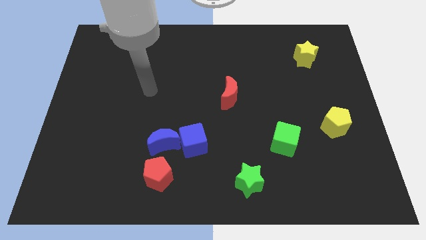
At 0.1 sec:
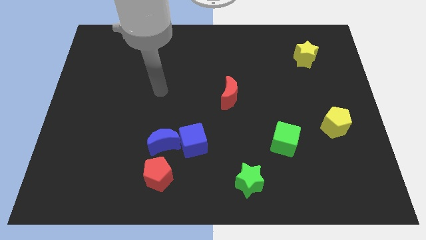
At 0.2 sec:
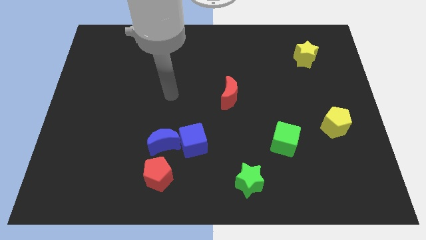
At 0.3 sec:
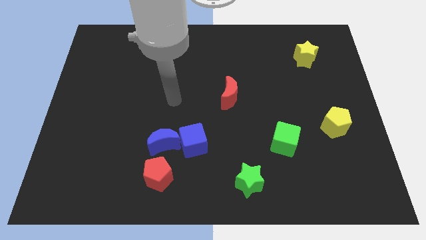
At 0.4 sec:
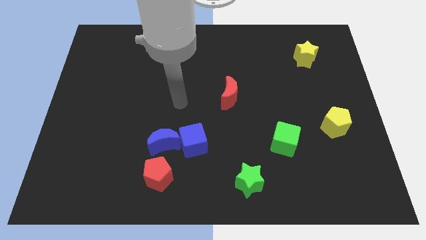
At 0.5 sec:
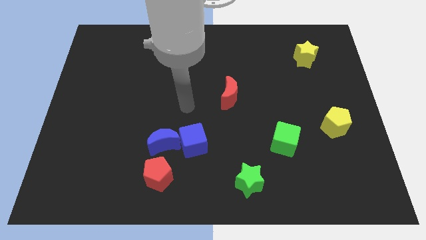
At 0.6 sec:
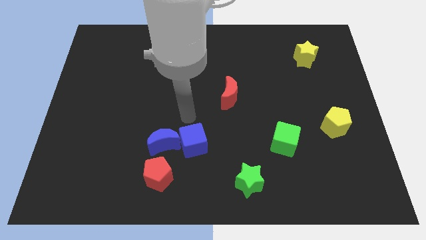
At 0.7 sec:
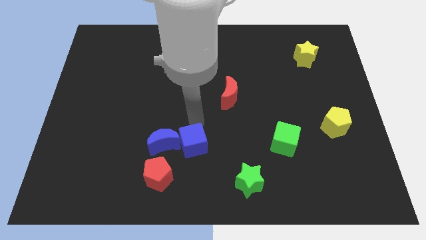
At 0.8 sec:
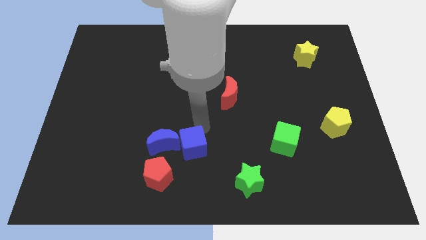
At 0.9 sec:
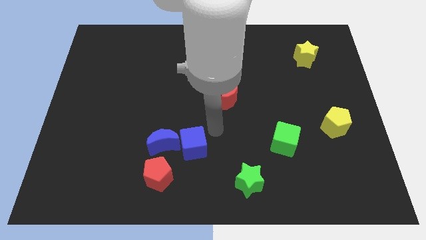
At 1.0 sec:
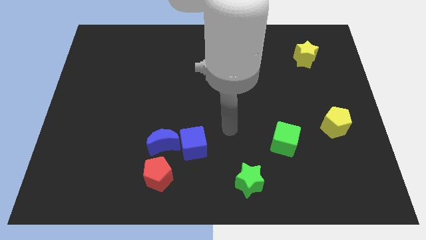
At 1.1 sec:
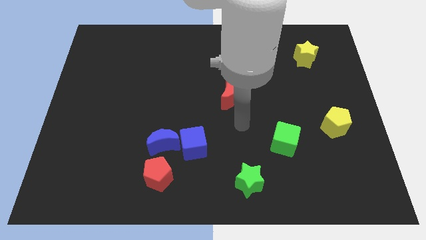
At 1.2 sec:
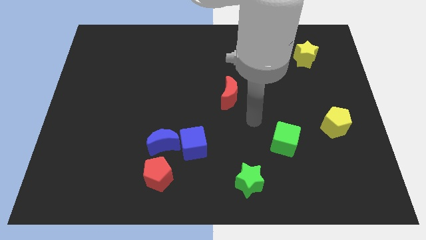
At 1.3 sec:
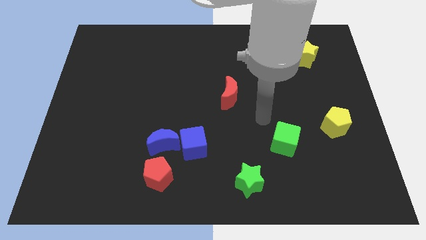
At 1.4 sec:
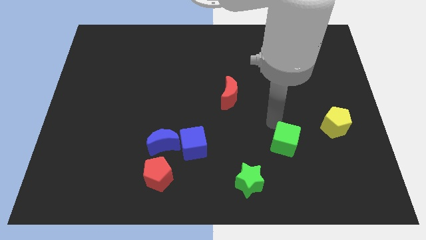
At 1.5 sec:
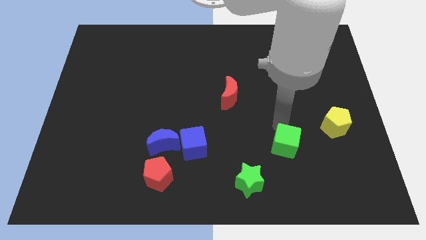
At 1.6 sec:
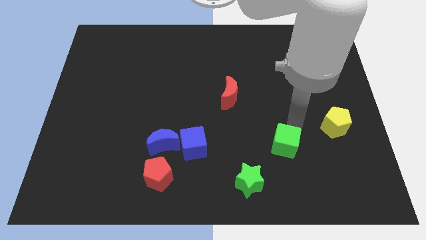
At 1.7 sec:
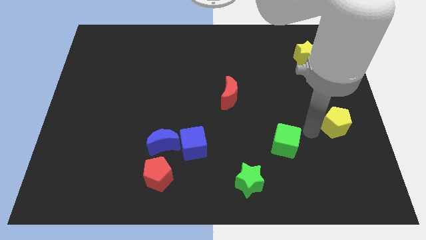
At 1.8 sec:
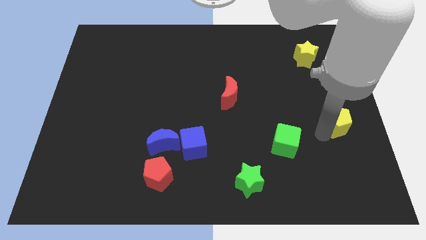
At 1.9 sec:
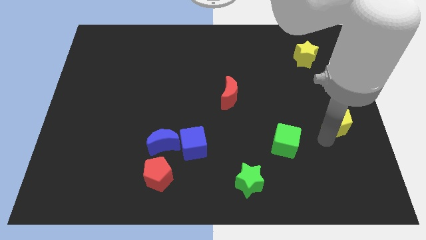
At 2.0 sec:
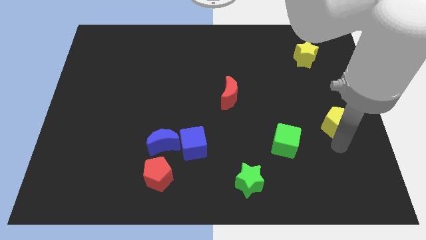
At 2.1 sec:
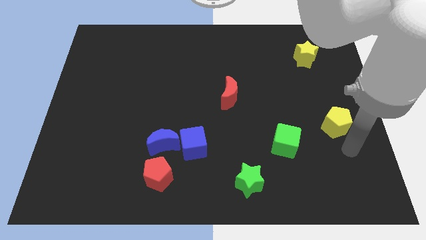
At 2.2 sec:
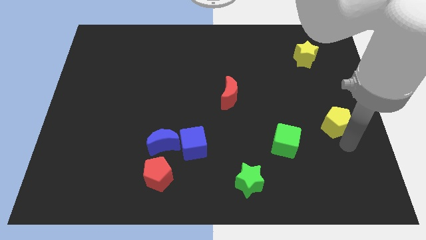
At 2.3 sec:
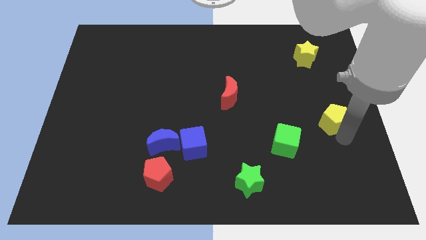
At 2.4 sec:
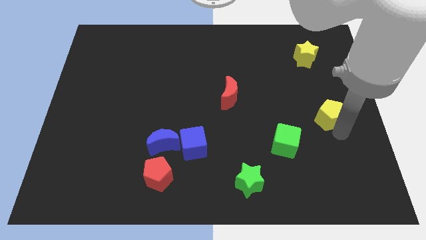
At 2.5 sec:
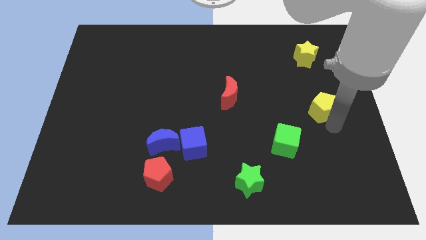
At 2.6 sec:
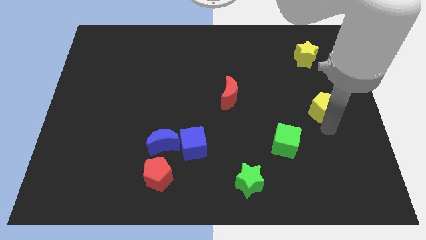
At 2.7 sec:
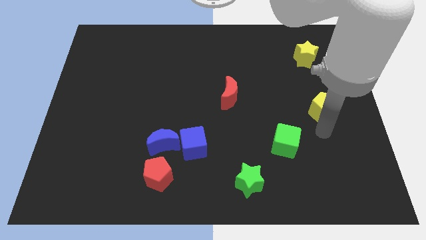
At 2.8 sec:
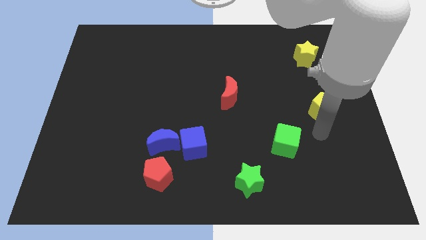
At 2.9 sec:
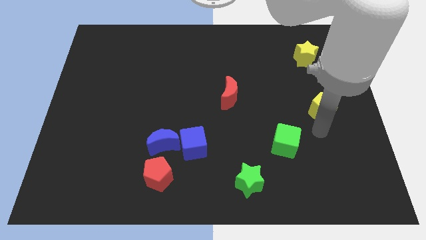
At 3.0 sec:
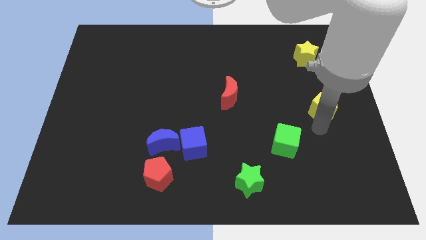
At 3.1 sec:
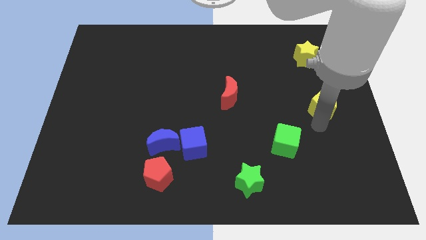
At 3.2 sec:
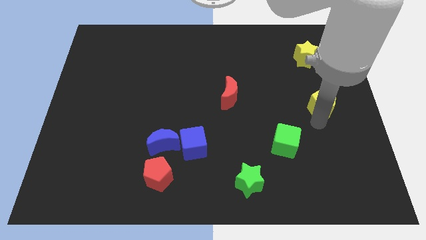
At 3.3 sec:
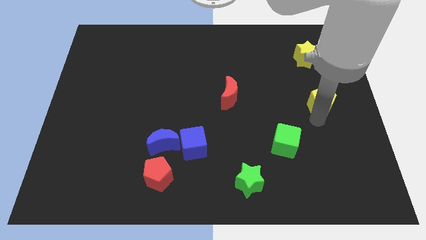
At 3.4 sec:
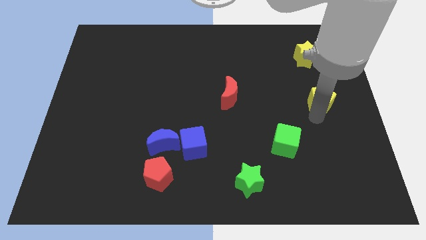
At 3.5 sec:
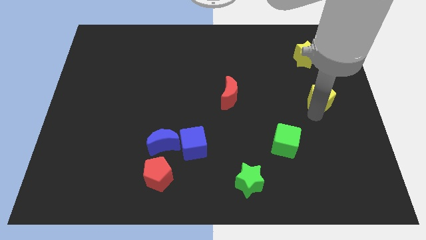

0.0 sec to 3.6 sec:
slightly push the yellow pentagon up

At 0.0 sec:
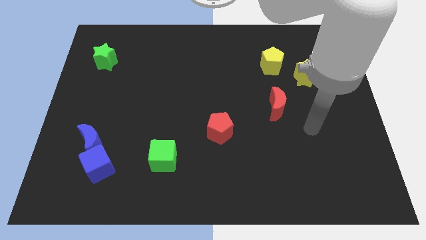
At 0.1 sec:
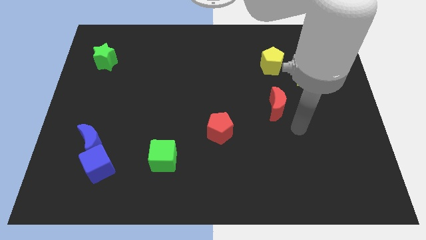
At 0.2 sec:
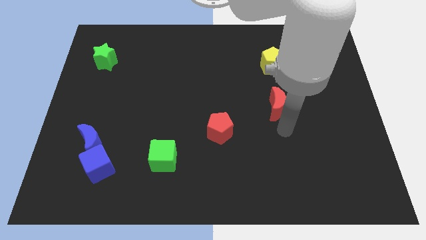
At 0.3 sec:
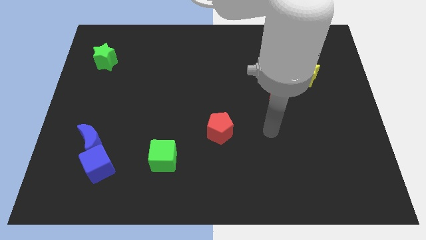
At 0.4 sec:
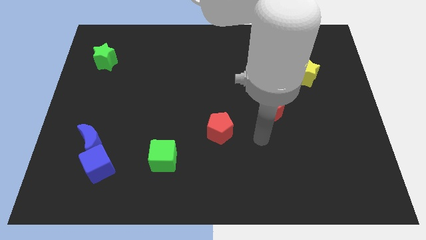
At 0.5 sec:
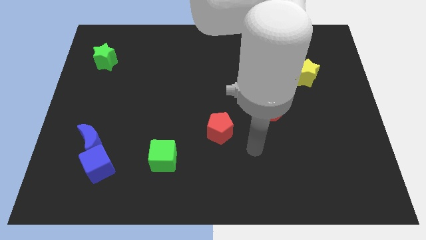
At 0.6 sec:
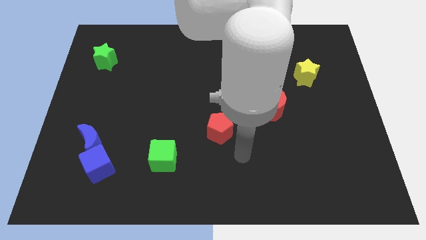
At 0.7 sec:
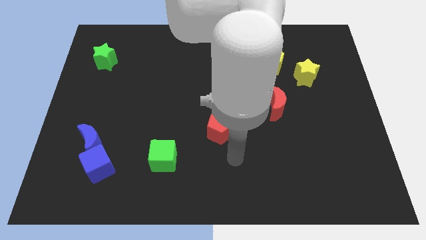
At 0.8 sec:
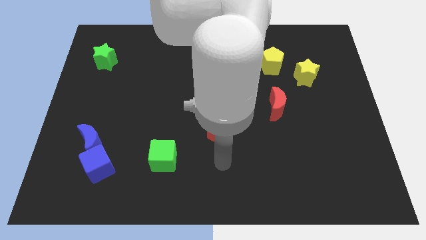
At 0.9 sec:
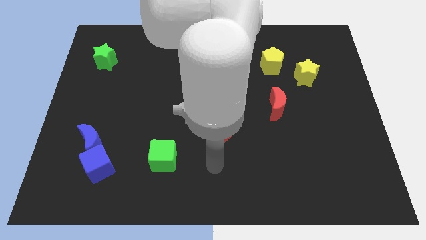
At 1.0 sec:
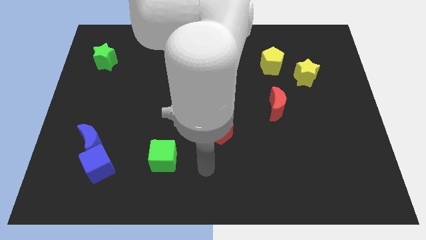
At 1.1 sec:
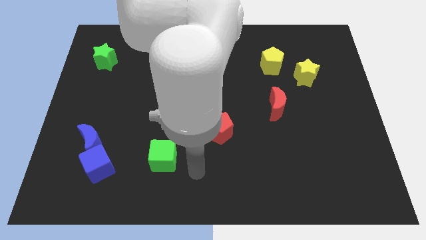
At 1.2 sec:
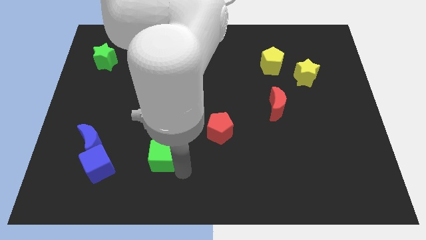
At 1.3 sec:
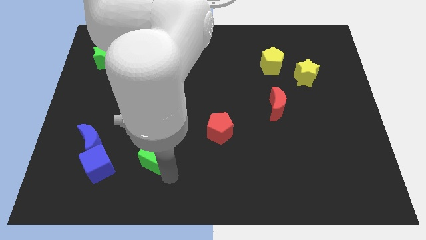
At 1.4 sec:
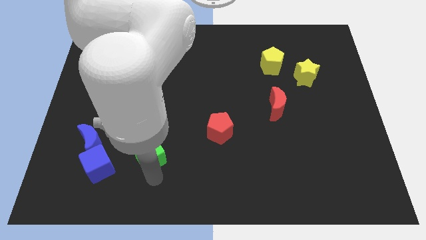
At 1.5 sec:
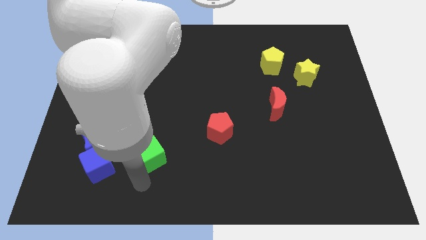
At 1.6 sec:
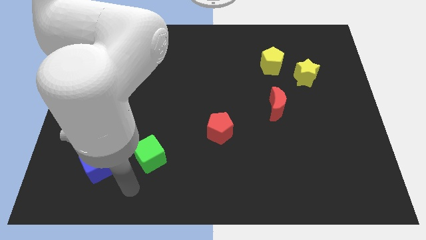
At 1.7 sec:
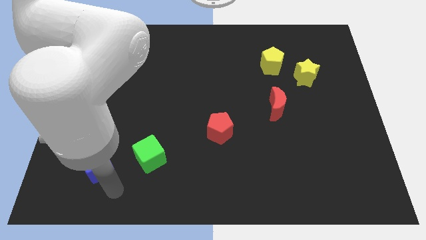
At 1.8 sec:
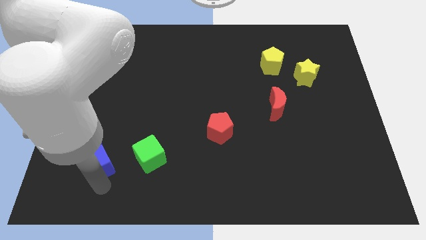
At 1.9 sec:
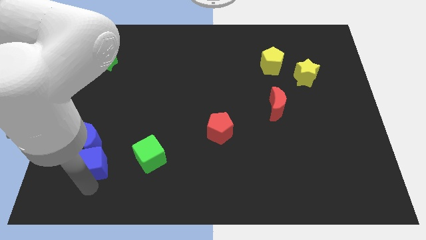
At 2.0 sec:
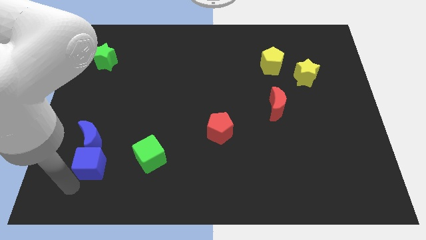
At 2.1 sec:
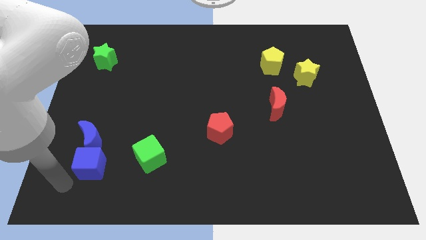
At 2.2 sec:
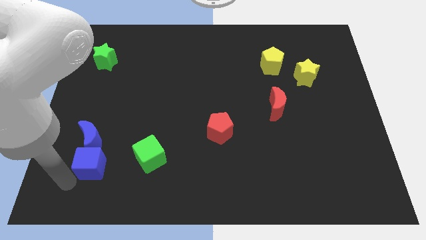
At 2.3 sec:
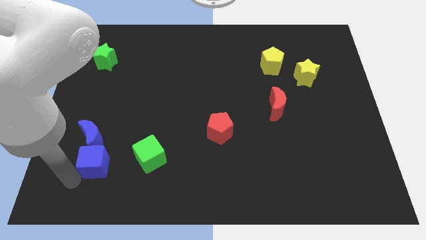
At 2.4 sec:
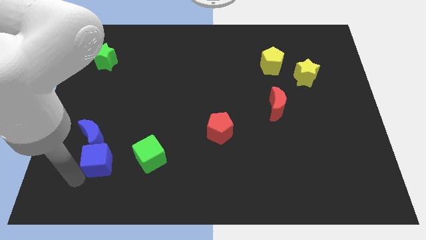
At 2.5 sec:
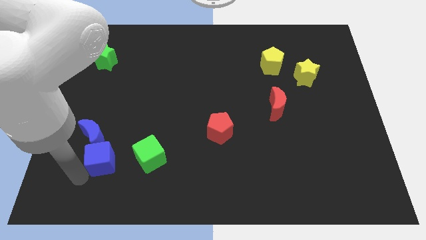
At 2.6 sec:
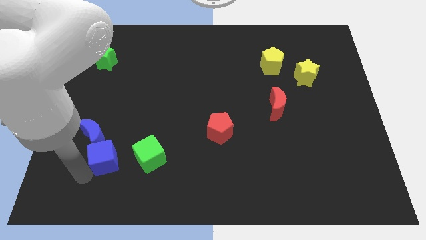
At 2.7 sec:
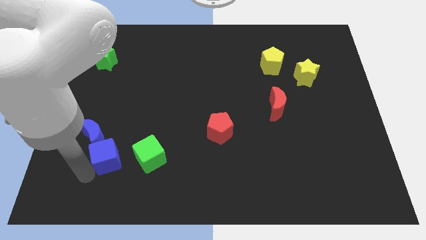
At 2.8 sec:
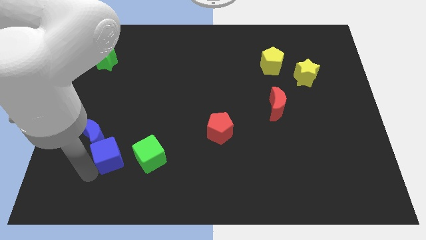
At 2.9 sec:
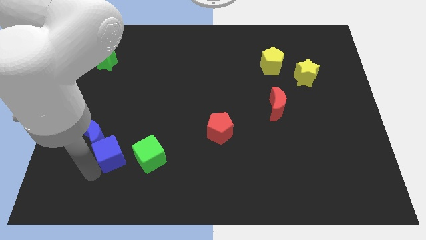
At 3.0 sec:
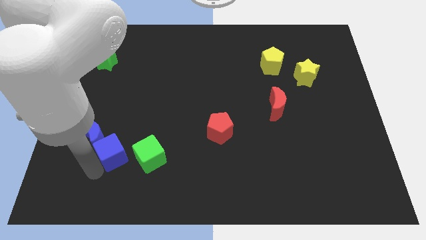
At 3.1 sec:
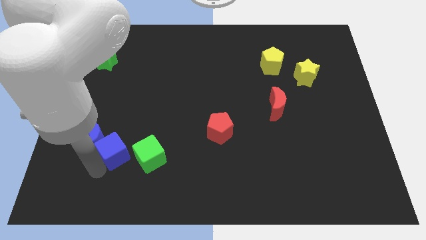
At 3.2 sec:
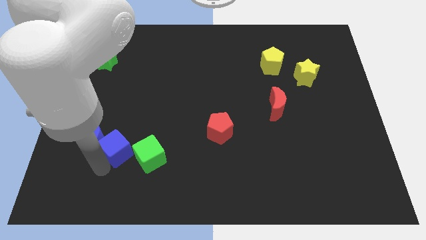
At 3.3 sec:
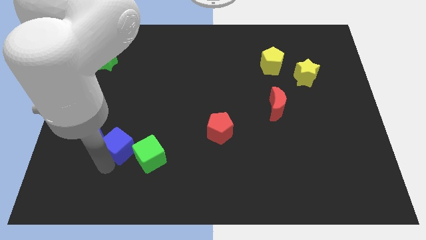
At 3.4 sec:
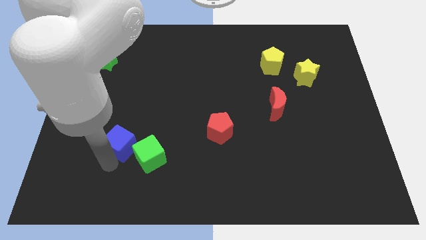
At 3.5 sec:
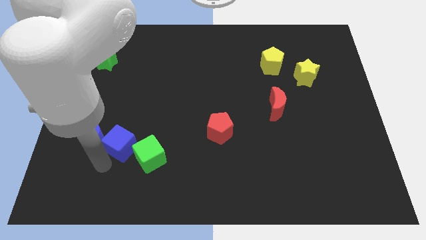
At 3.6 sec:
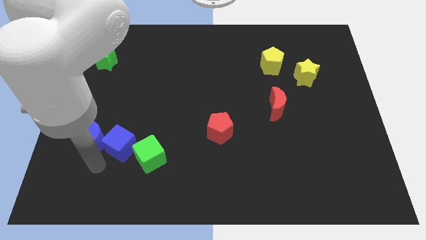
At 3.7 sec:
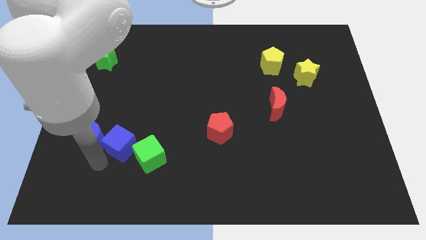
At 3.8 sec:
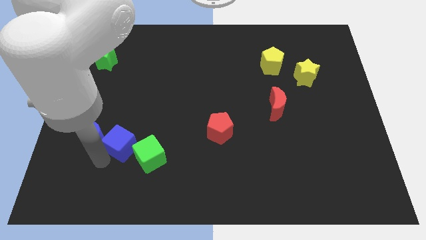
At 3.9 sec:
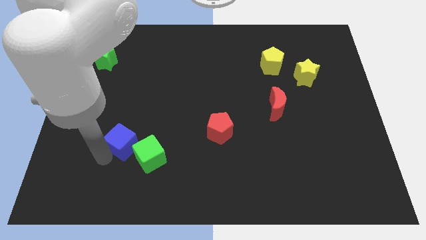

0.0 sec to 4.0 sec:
move the blue cube a little upwards and to the right

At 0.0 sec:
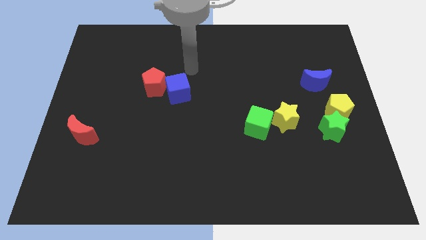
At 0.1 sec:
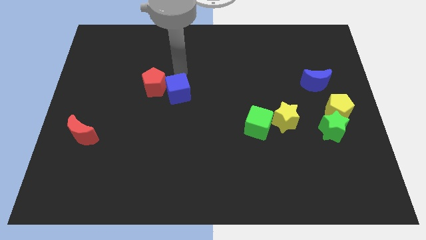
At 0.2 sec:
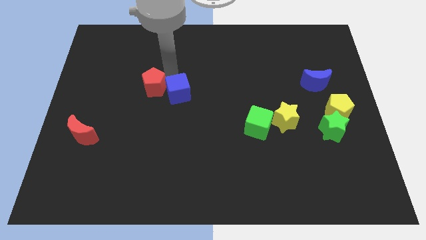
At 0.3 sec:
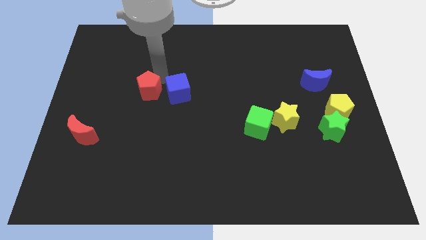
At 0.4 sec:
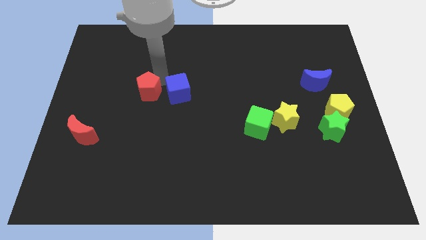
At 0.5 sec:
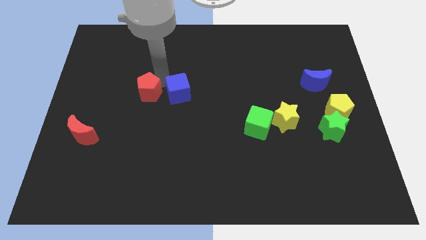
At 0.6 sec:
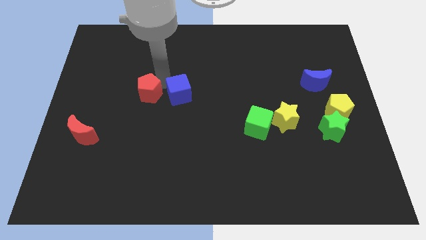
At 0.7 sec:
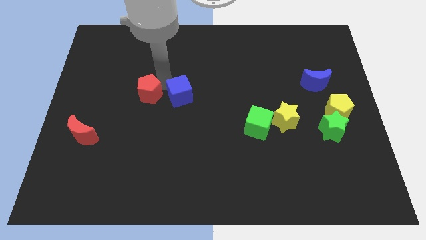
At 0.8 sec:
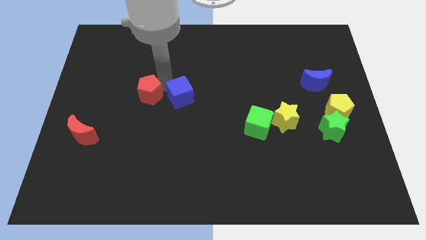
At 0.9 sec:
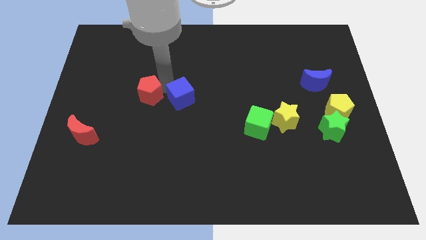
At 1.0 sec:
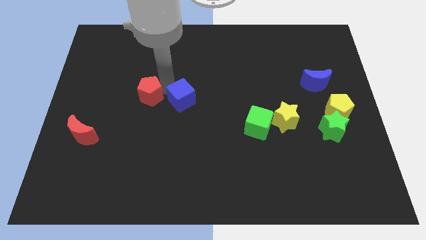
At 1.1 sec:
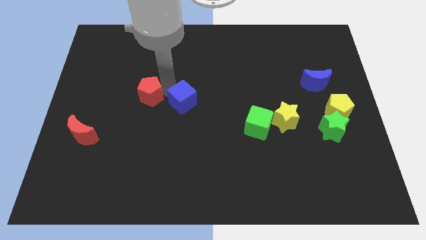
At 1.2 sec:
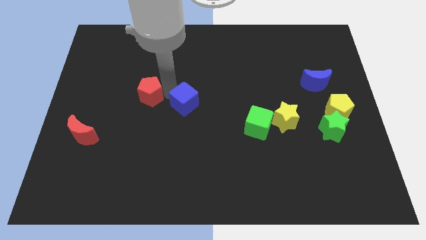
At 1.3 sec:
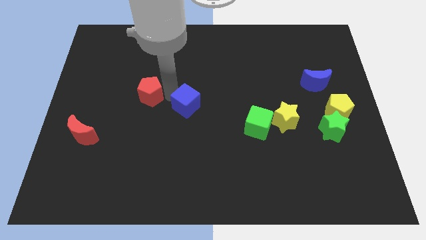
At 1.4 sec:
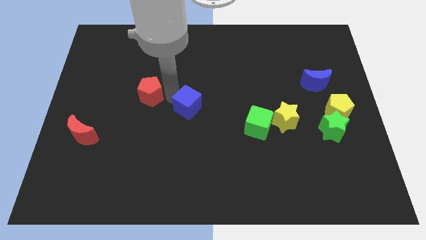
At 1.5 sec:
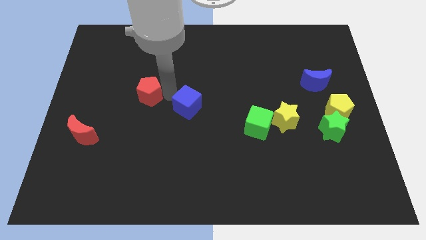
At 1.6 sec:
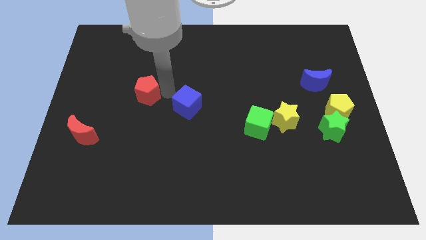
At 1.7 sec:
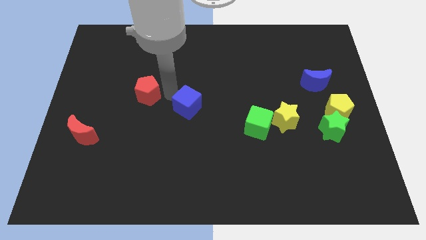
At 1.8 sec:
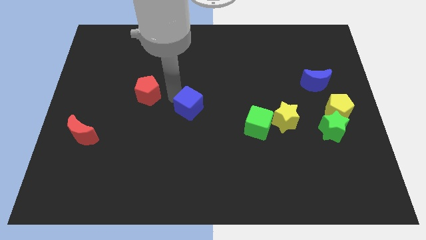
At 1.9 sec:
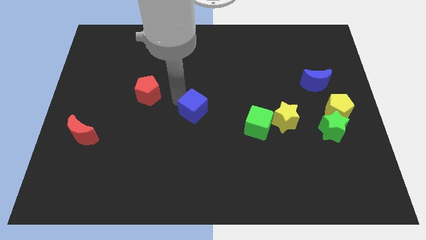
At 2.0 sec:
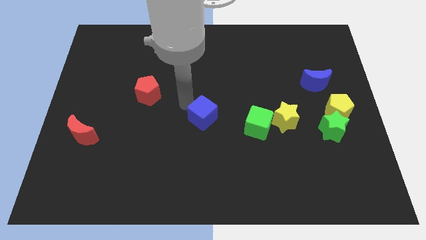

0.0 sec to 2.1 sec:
slightly push the blue cube downwards and right diagonally
